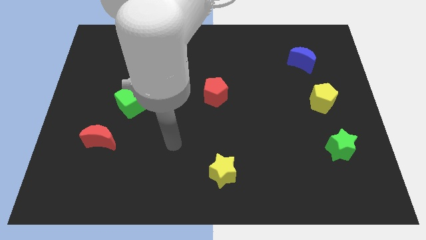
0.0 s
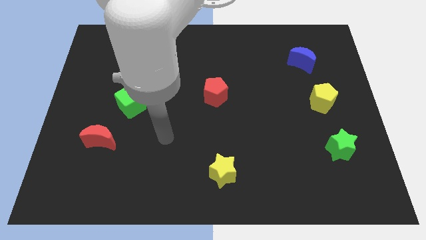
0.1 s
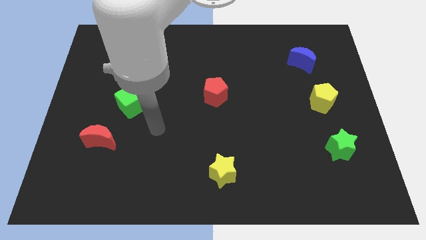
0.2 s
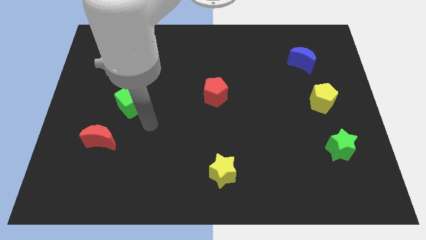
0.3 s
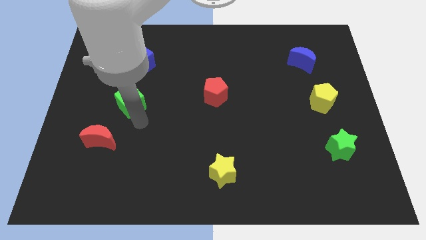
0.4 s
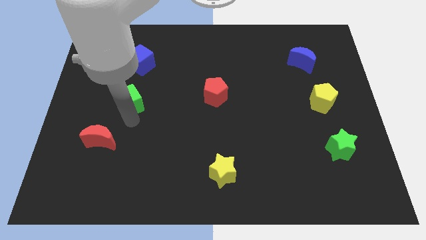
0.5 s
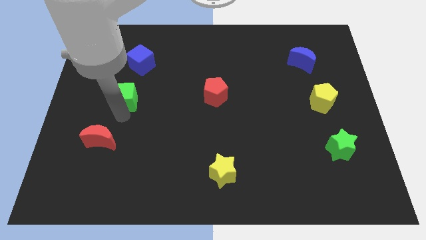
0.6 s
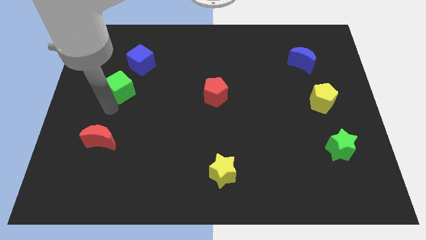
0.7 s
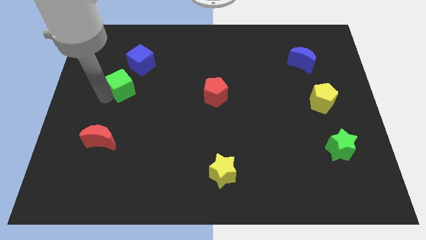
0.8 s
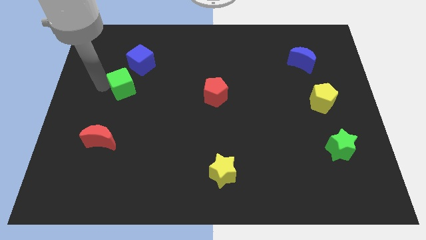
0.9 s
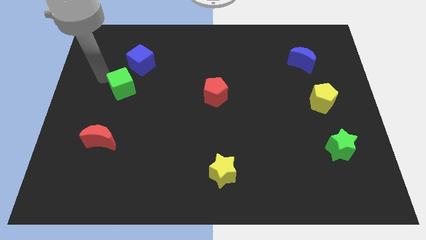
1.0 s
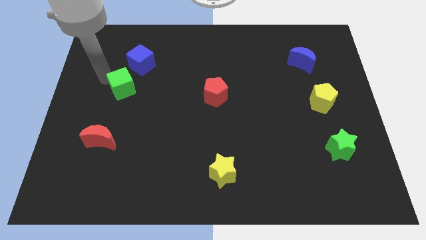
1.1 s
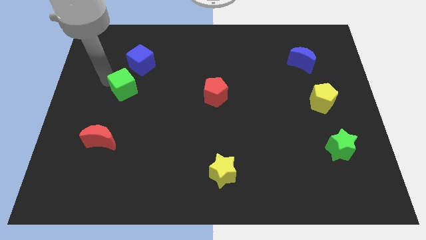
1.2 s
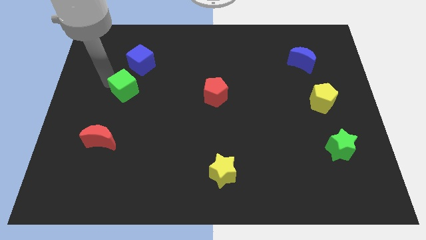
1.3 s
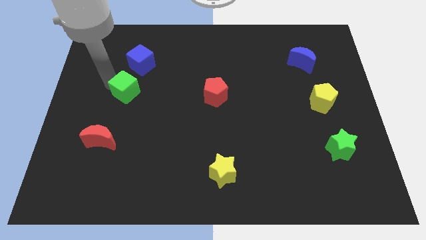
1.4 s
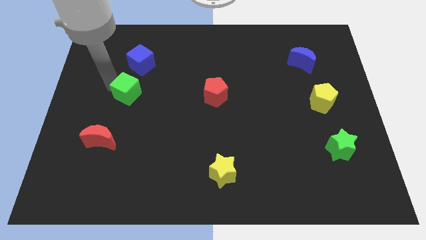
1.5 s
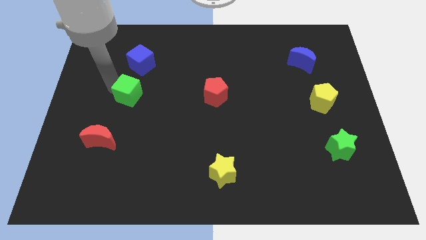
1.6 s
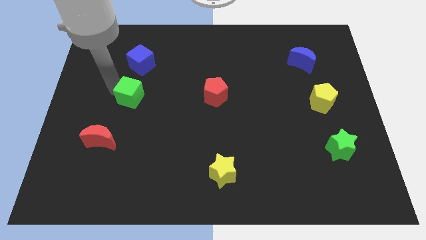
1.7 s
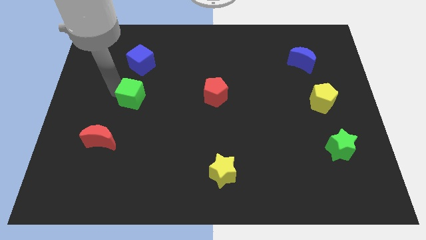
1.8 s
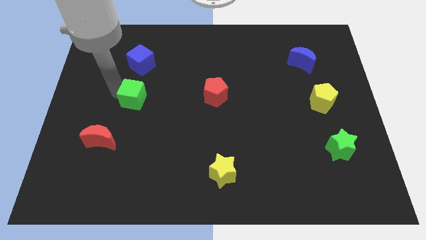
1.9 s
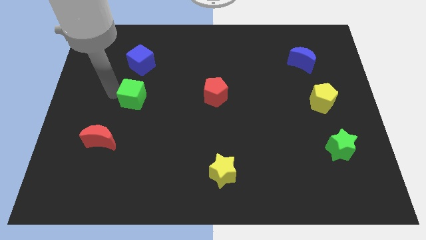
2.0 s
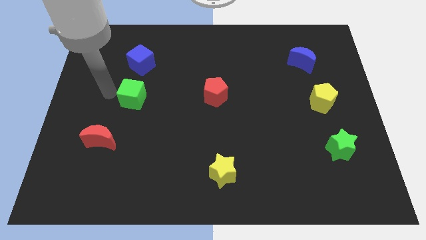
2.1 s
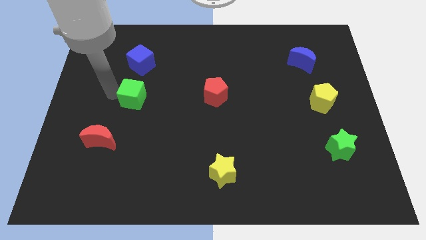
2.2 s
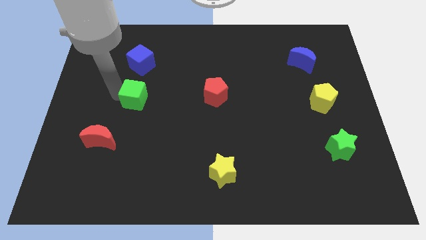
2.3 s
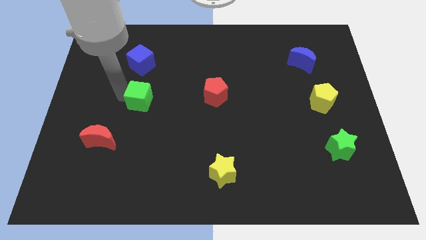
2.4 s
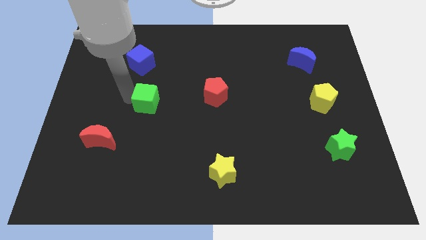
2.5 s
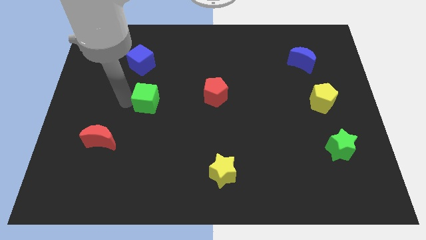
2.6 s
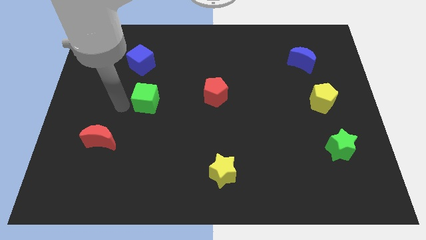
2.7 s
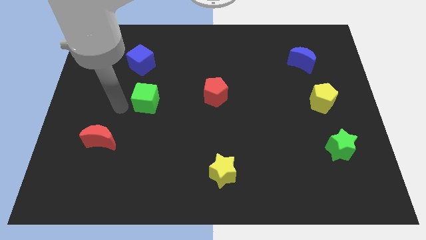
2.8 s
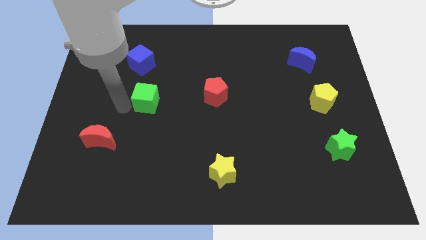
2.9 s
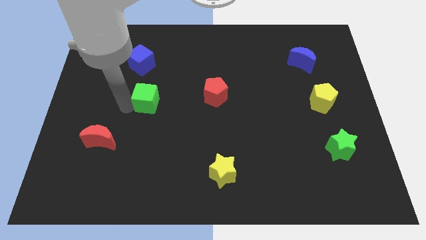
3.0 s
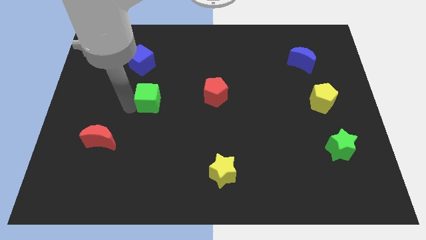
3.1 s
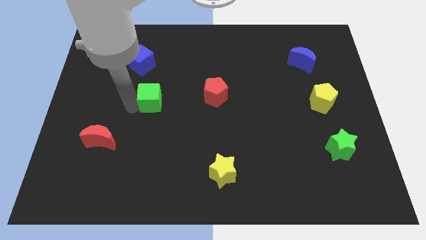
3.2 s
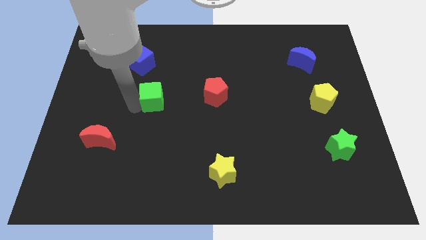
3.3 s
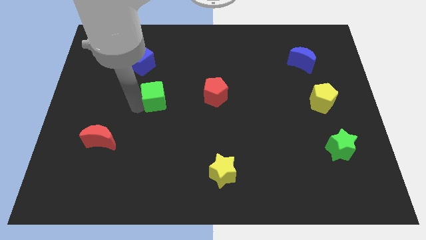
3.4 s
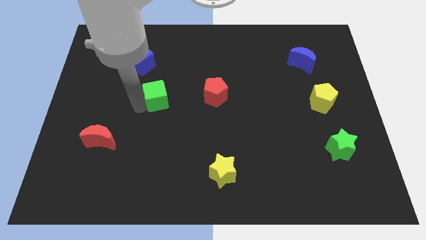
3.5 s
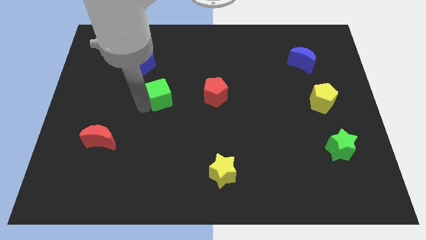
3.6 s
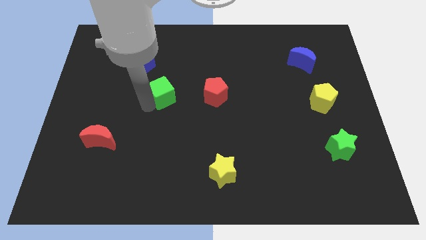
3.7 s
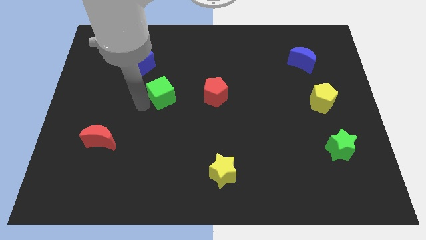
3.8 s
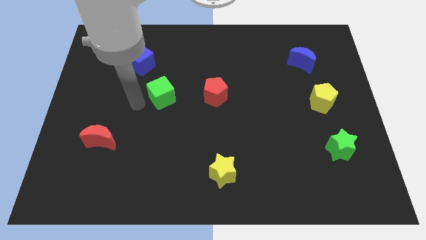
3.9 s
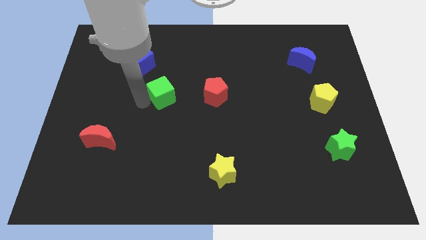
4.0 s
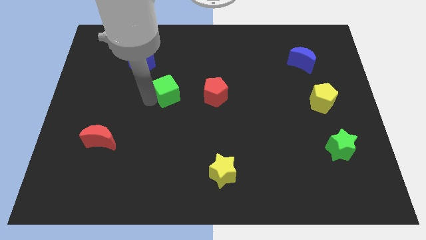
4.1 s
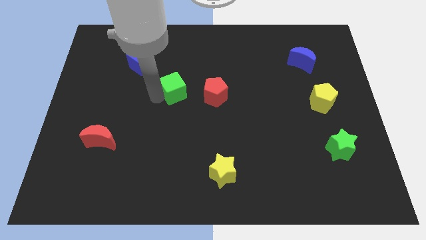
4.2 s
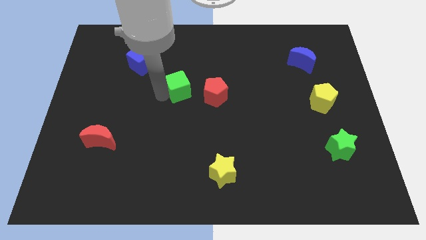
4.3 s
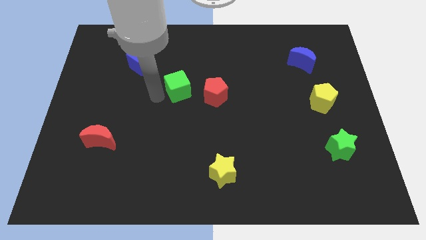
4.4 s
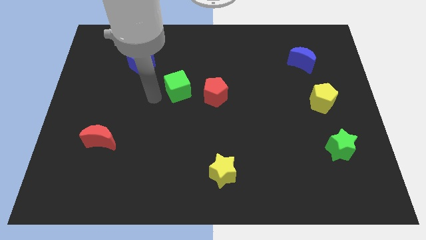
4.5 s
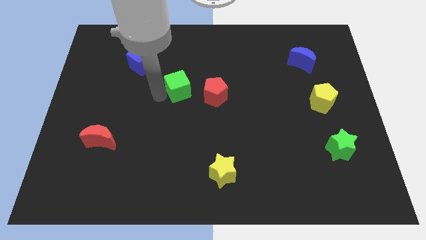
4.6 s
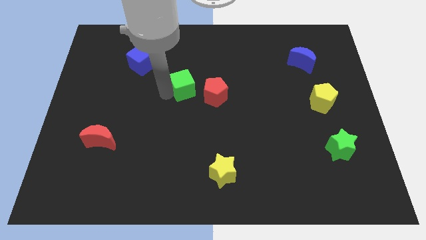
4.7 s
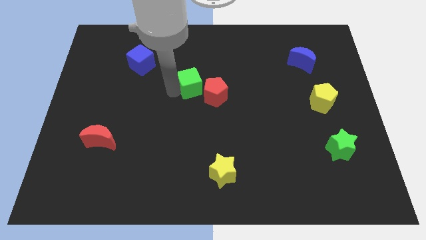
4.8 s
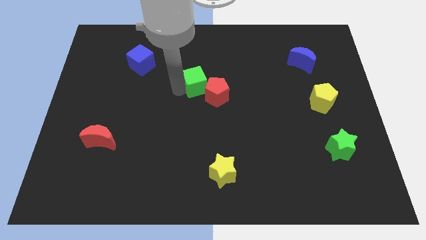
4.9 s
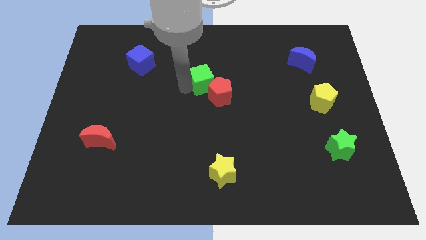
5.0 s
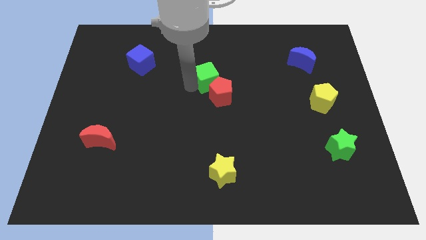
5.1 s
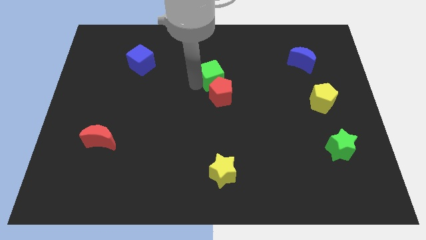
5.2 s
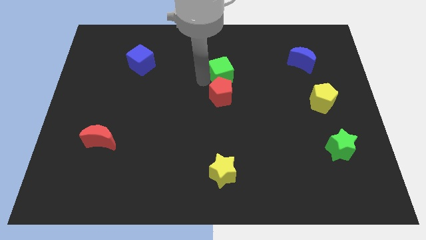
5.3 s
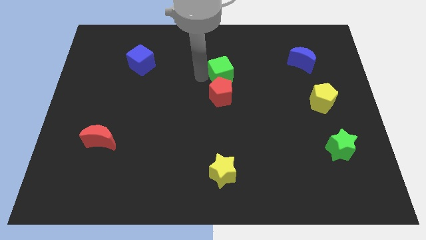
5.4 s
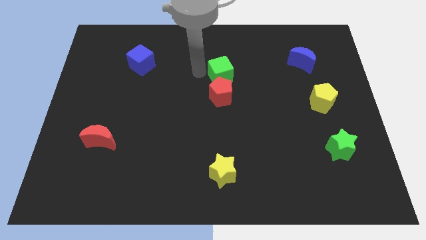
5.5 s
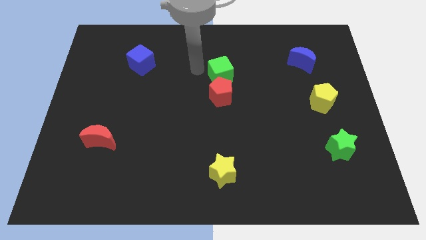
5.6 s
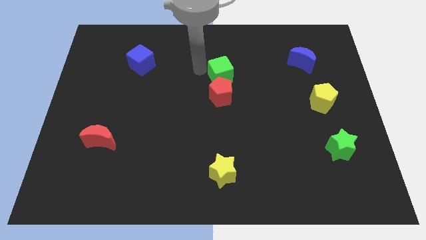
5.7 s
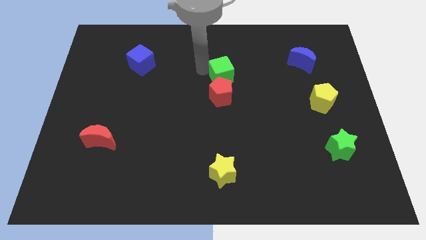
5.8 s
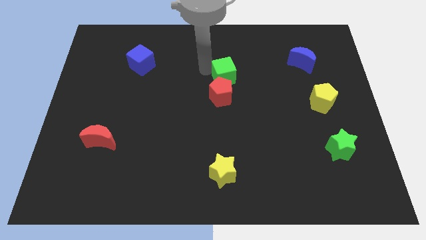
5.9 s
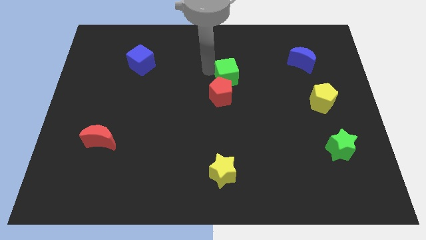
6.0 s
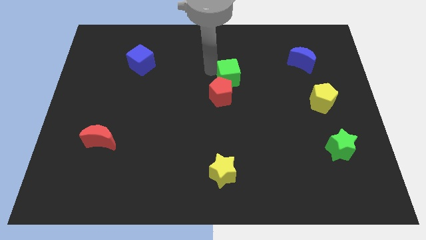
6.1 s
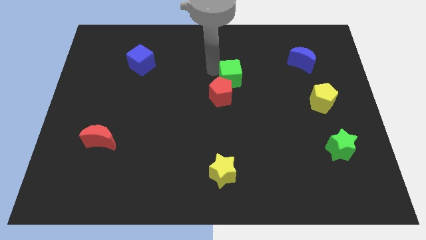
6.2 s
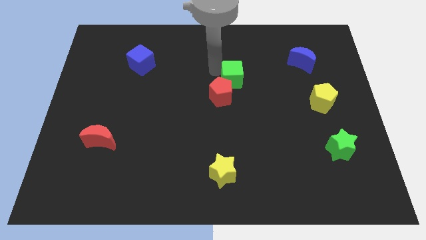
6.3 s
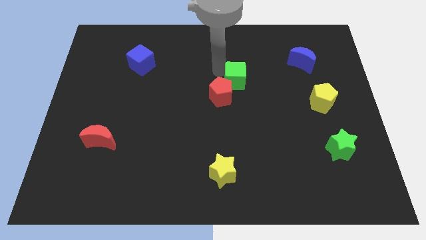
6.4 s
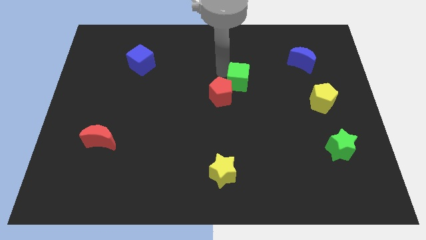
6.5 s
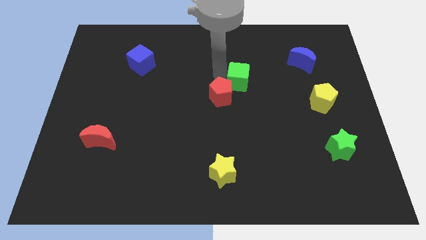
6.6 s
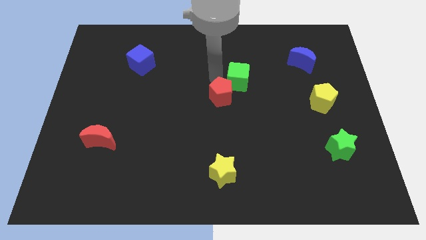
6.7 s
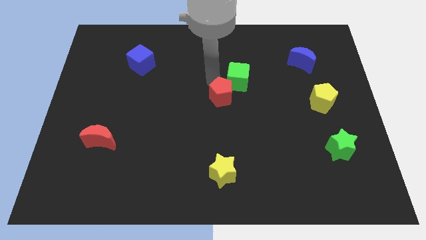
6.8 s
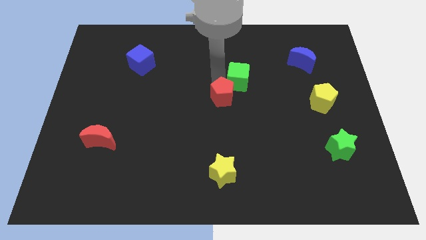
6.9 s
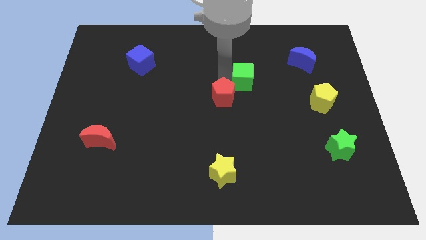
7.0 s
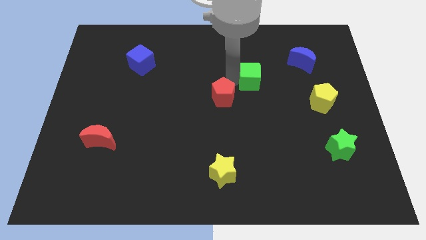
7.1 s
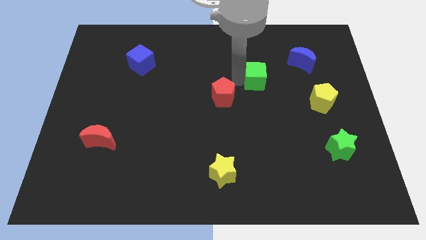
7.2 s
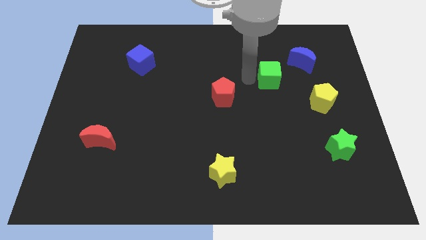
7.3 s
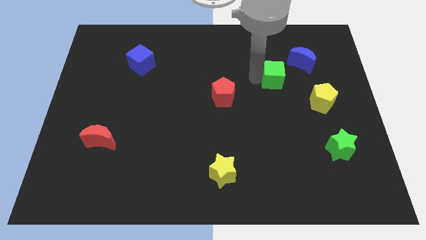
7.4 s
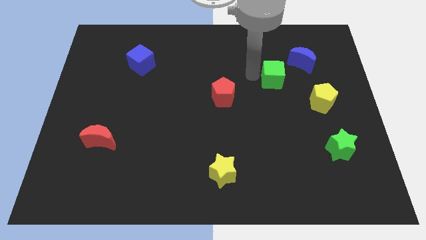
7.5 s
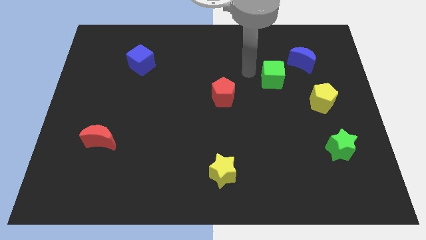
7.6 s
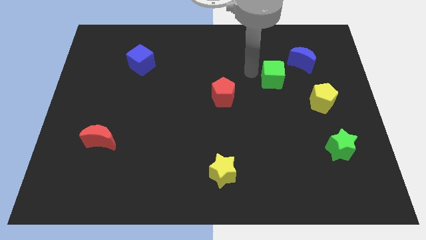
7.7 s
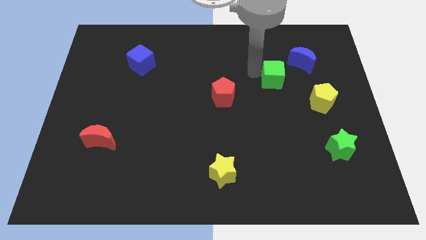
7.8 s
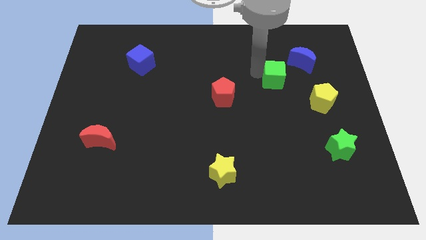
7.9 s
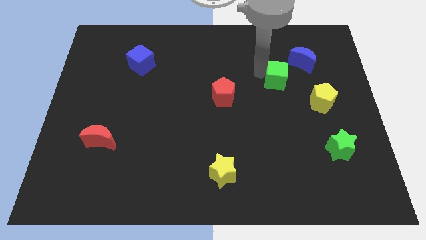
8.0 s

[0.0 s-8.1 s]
move the green cube diagonally up and to the left of the yellow pentagon
